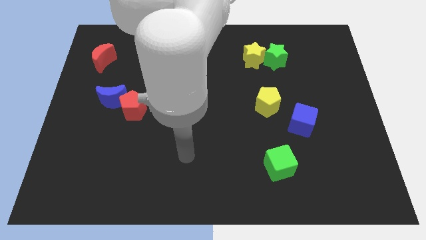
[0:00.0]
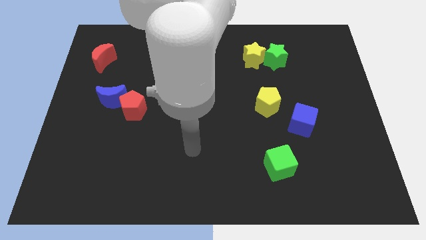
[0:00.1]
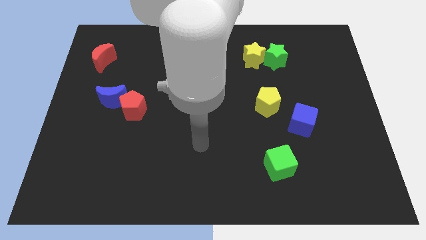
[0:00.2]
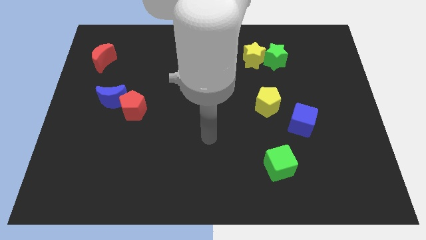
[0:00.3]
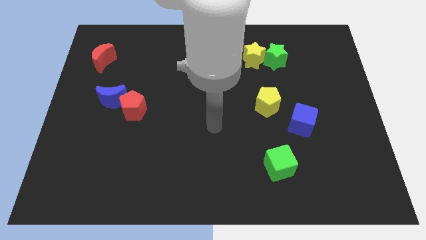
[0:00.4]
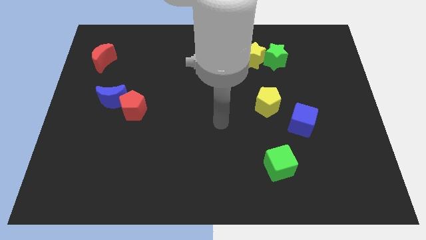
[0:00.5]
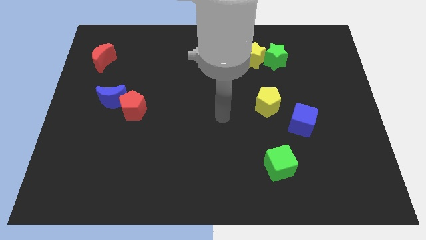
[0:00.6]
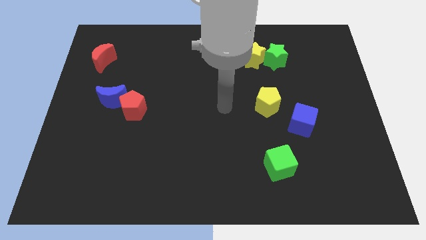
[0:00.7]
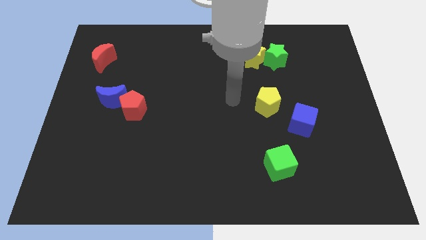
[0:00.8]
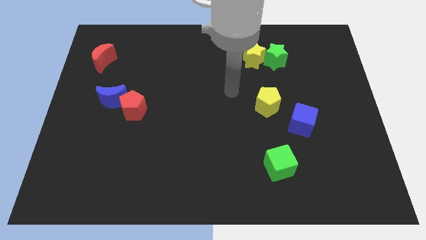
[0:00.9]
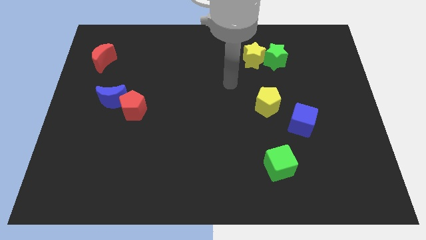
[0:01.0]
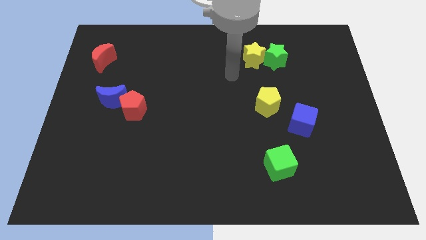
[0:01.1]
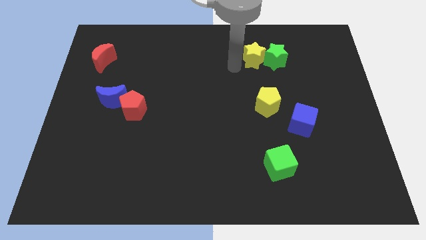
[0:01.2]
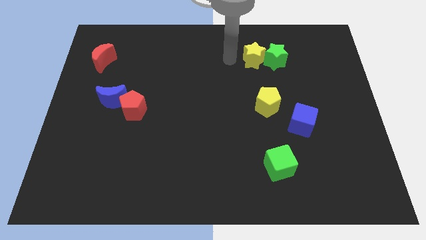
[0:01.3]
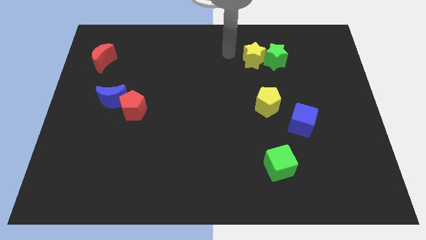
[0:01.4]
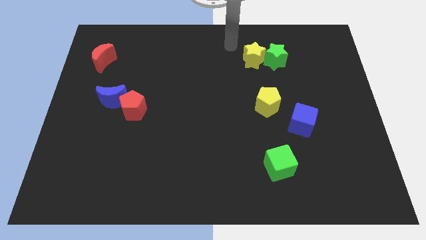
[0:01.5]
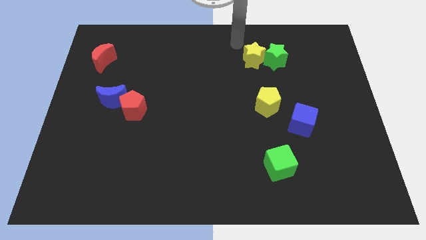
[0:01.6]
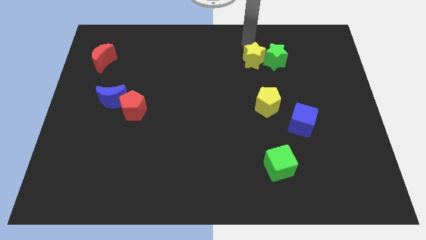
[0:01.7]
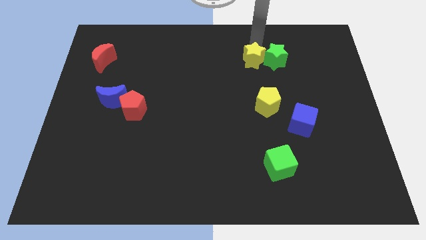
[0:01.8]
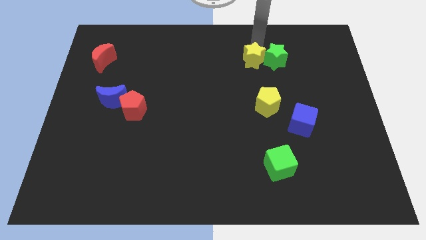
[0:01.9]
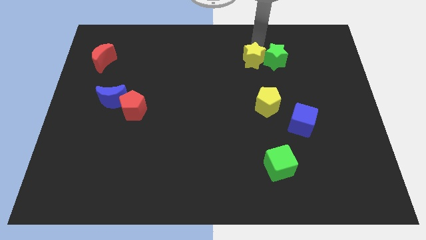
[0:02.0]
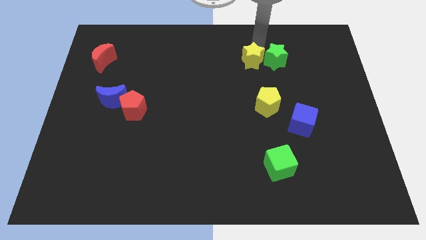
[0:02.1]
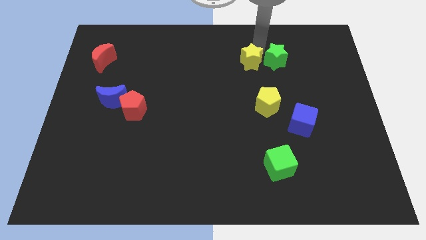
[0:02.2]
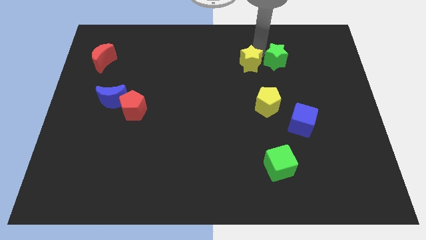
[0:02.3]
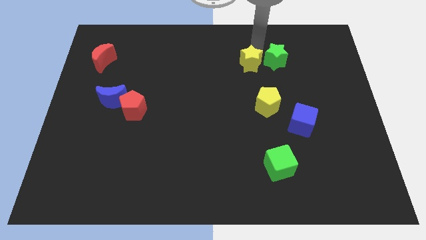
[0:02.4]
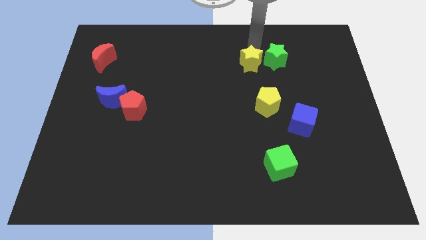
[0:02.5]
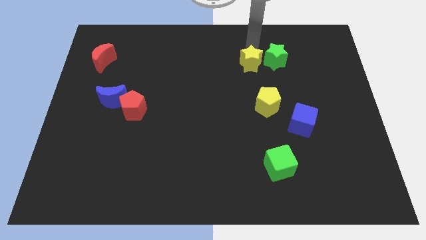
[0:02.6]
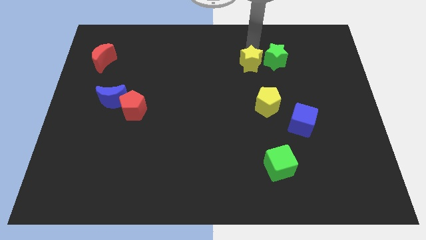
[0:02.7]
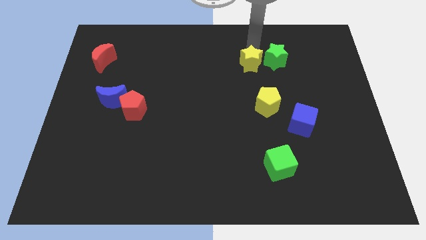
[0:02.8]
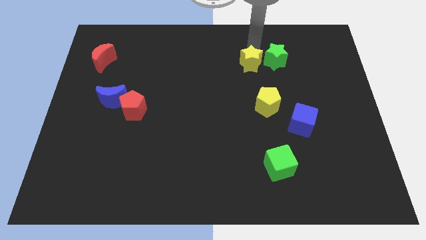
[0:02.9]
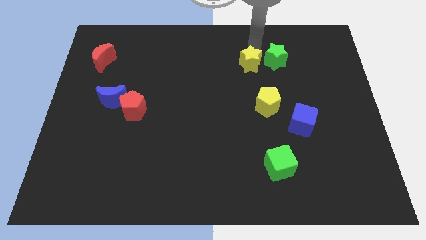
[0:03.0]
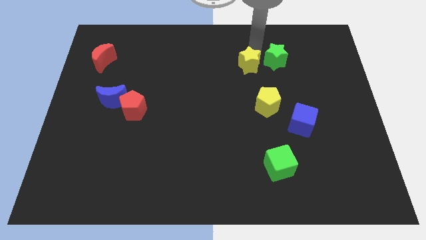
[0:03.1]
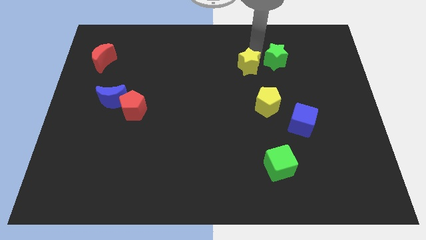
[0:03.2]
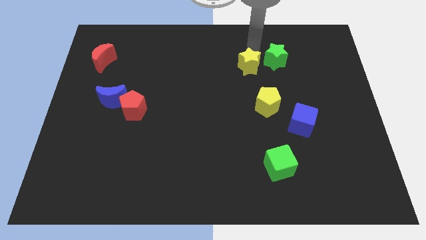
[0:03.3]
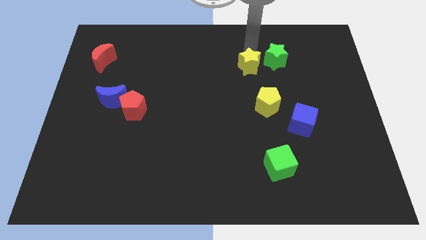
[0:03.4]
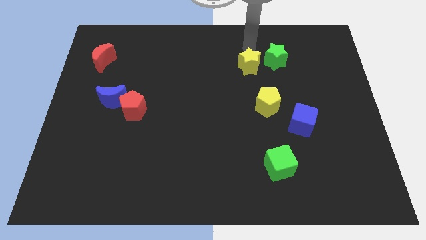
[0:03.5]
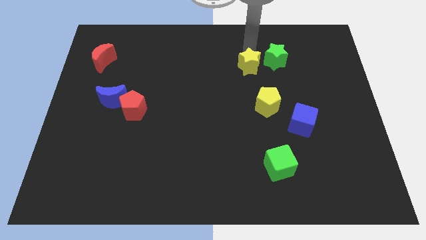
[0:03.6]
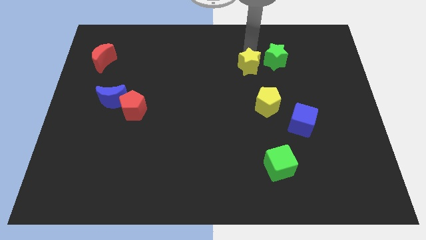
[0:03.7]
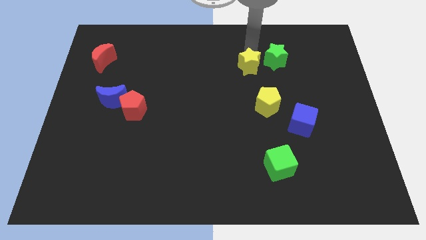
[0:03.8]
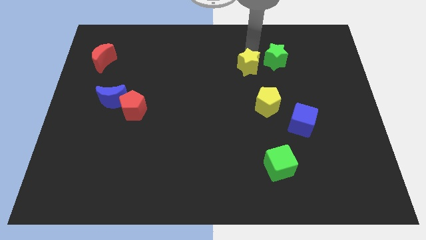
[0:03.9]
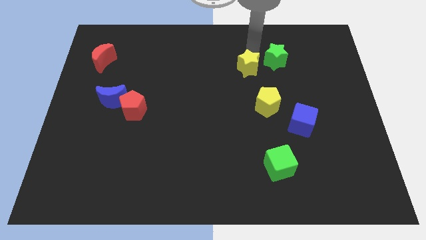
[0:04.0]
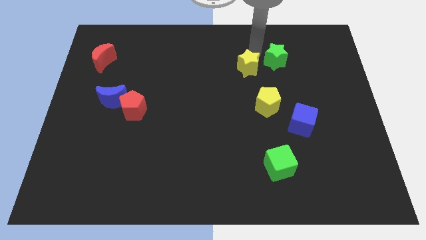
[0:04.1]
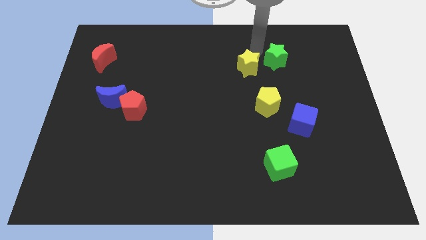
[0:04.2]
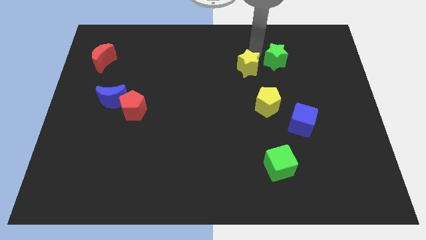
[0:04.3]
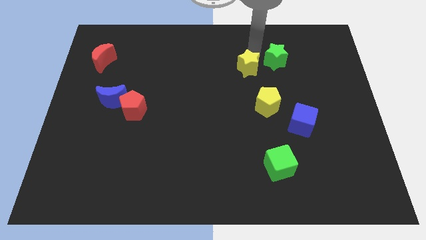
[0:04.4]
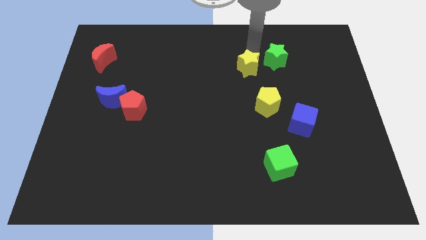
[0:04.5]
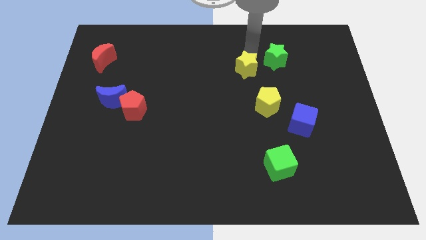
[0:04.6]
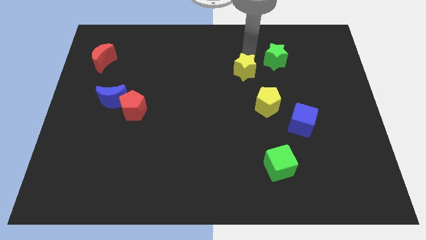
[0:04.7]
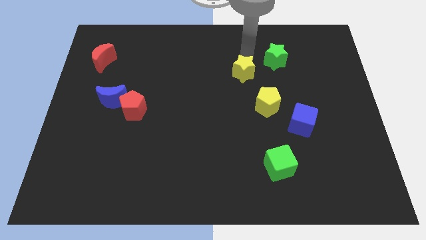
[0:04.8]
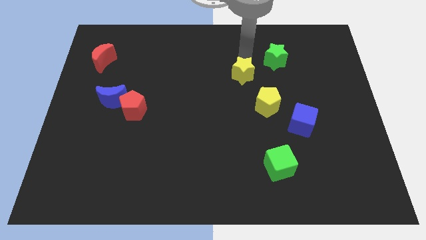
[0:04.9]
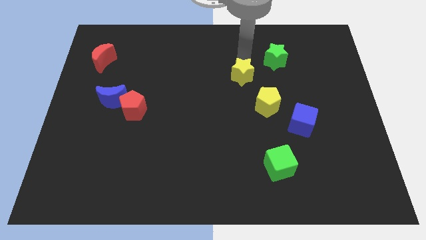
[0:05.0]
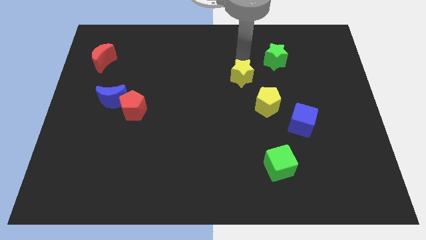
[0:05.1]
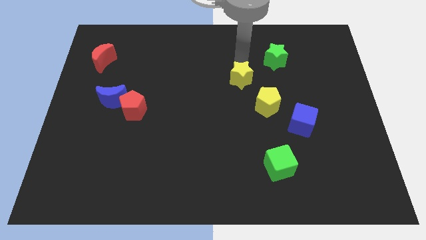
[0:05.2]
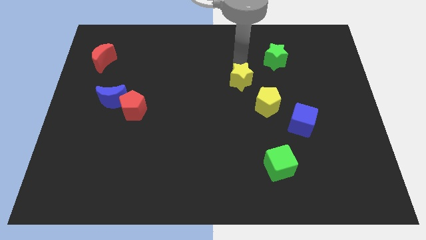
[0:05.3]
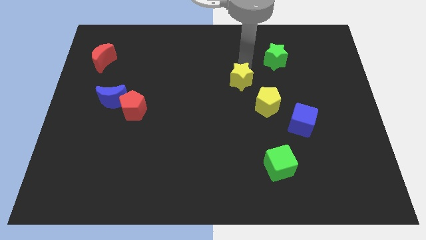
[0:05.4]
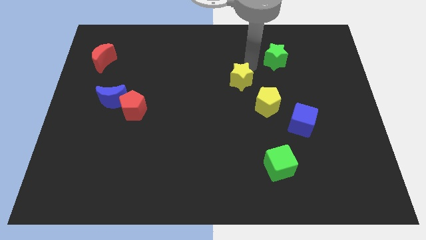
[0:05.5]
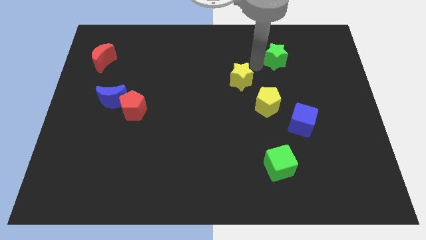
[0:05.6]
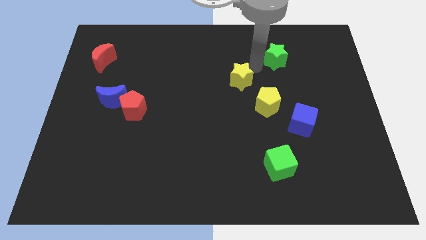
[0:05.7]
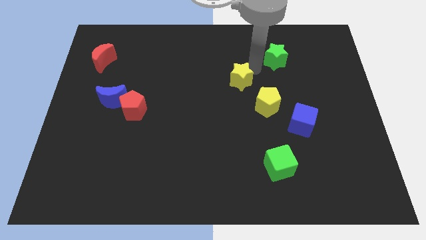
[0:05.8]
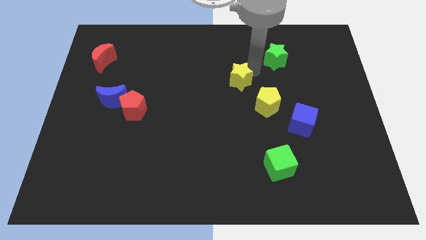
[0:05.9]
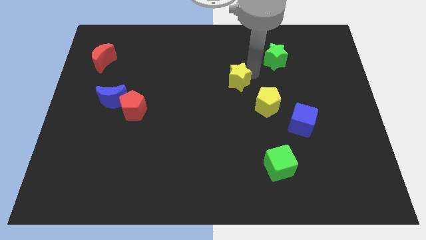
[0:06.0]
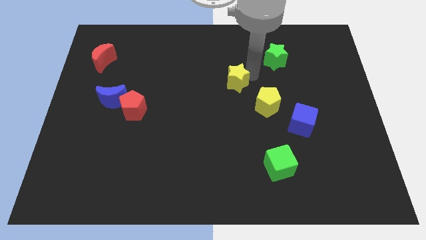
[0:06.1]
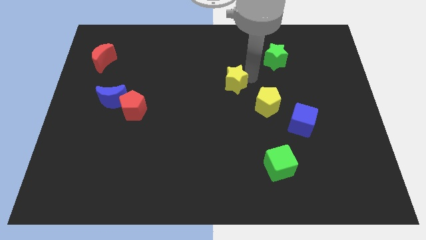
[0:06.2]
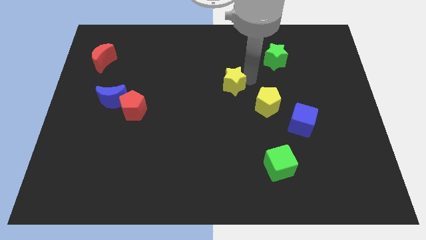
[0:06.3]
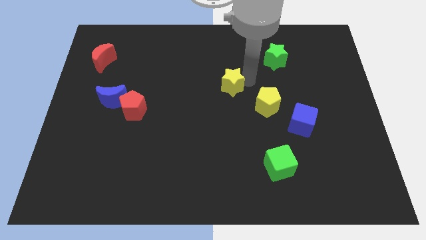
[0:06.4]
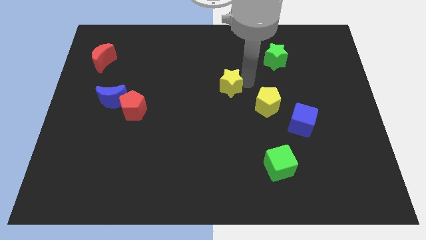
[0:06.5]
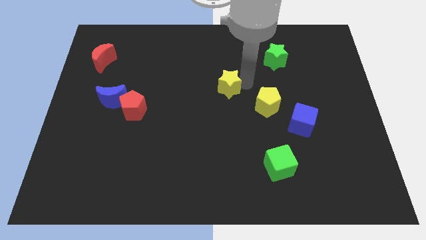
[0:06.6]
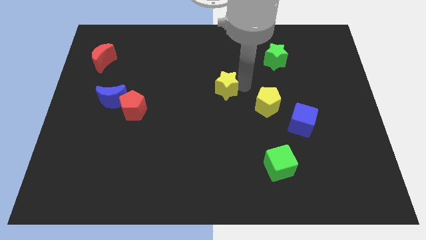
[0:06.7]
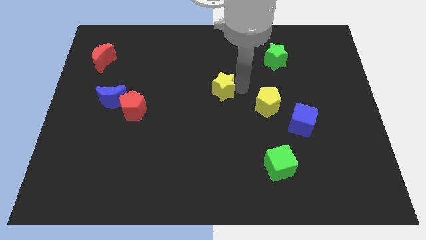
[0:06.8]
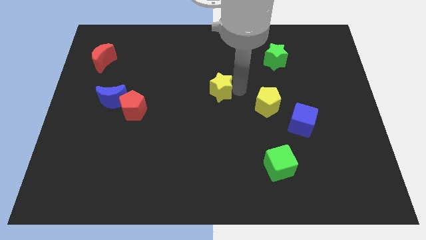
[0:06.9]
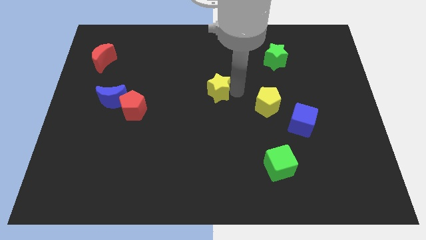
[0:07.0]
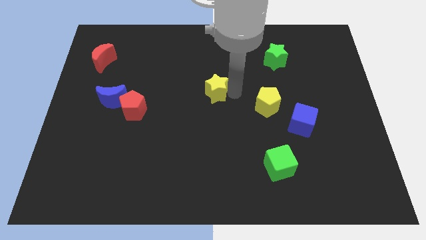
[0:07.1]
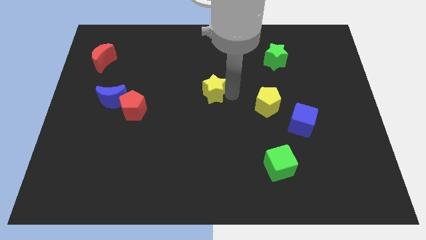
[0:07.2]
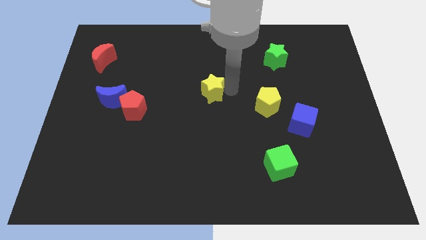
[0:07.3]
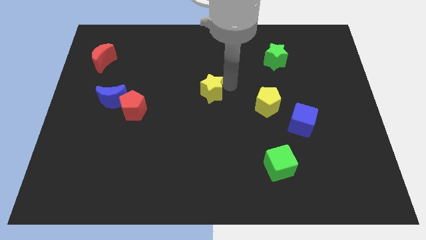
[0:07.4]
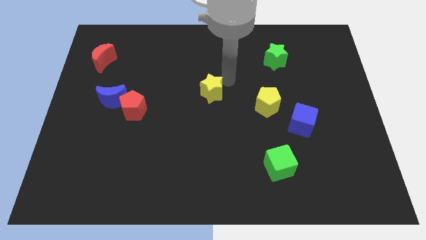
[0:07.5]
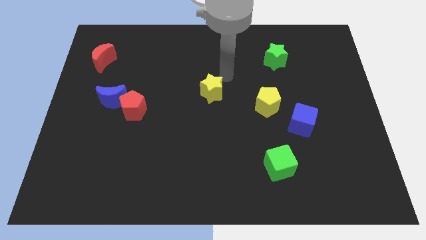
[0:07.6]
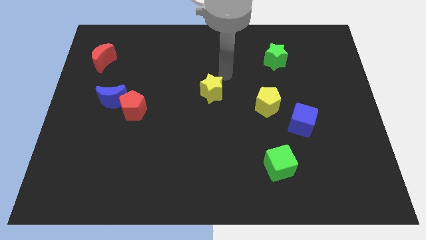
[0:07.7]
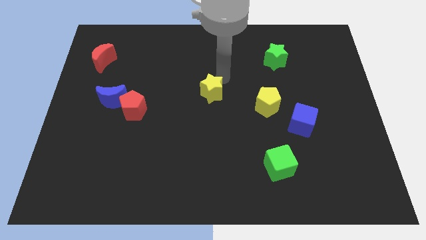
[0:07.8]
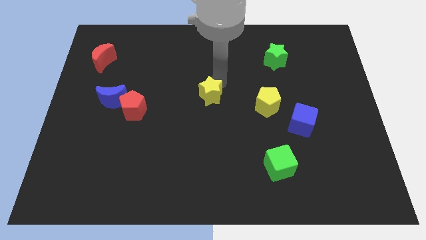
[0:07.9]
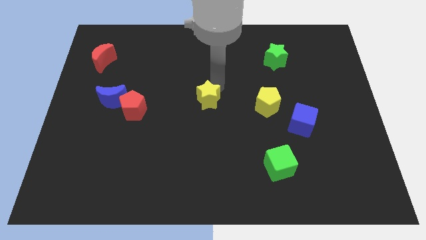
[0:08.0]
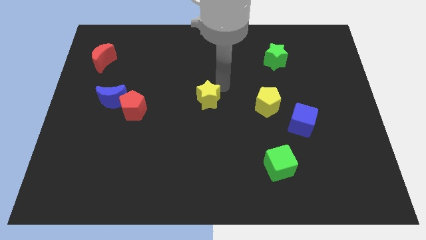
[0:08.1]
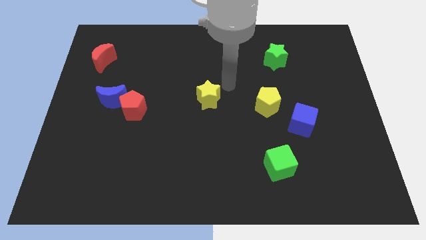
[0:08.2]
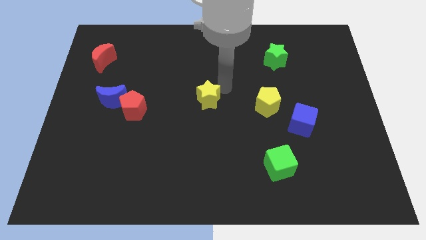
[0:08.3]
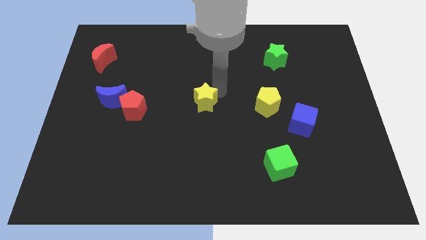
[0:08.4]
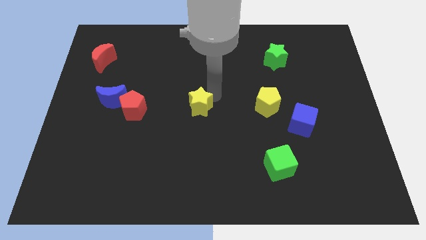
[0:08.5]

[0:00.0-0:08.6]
slide the yellow star downwards and then left
